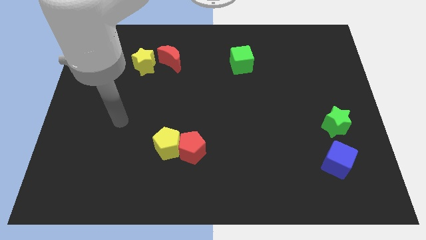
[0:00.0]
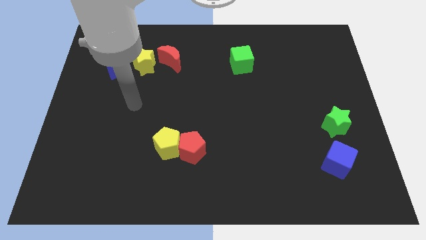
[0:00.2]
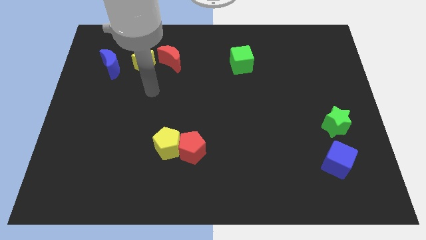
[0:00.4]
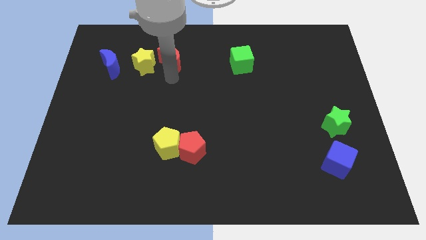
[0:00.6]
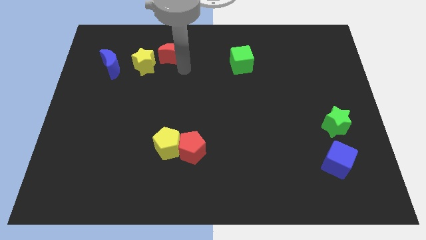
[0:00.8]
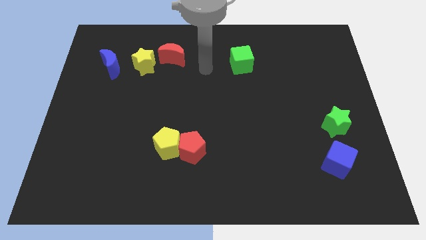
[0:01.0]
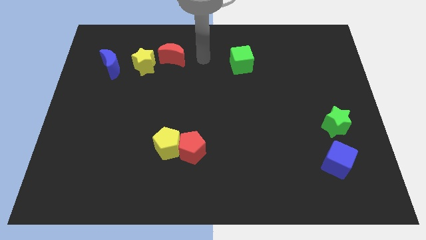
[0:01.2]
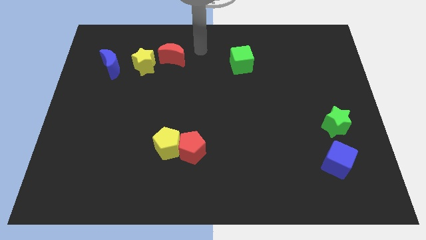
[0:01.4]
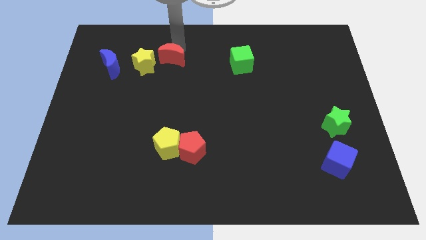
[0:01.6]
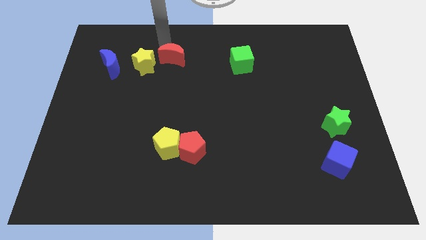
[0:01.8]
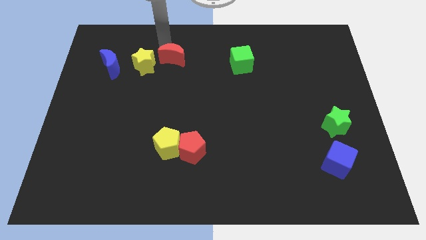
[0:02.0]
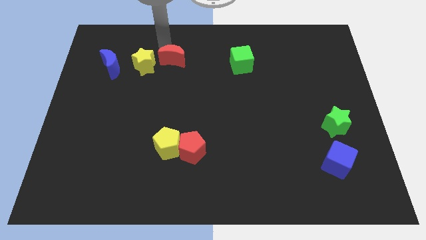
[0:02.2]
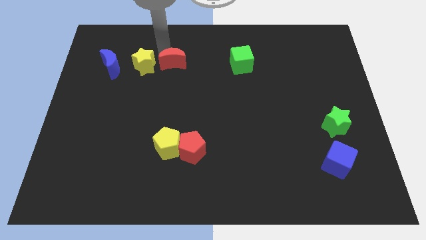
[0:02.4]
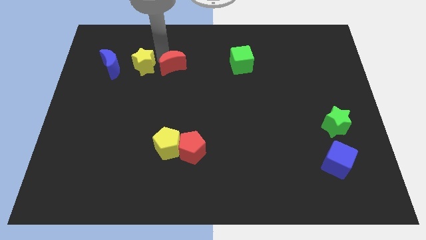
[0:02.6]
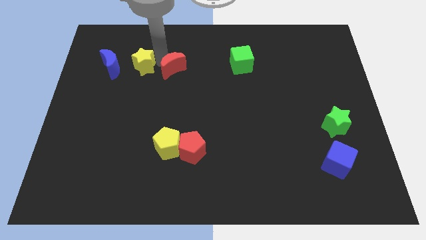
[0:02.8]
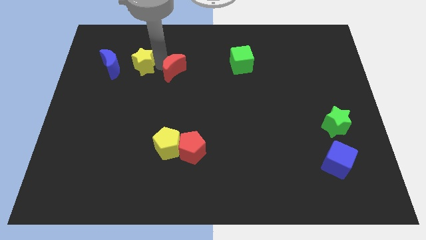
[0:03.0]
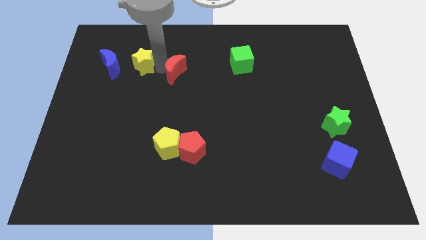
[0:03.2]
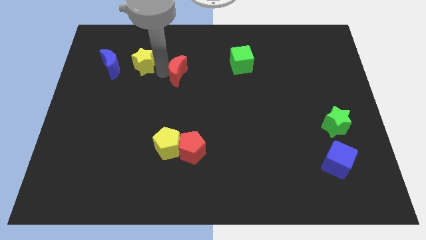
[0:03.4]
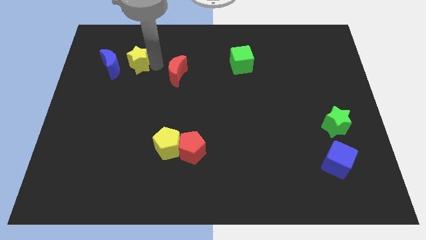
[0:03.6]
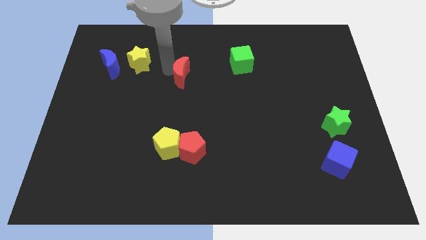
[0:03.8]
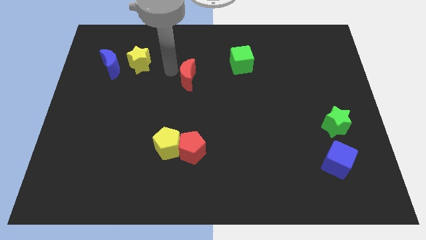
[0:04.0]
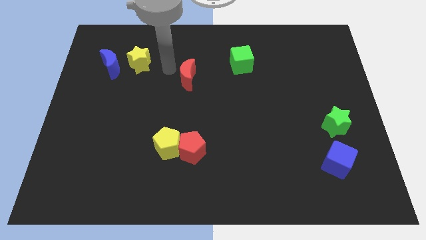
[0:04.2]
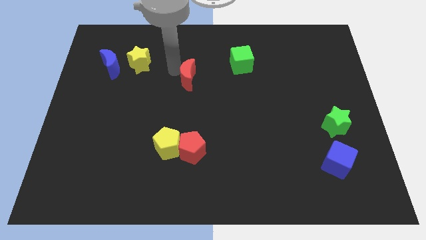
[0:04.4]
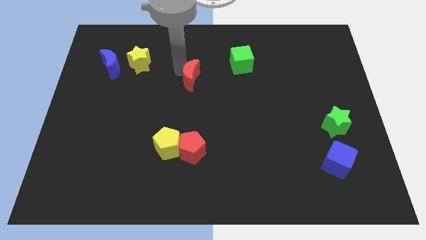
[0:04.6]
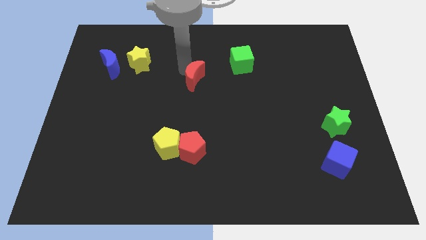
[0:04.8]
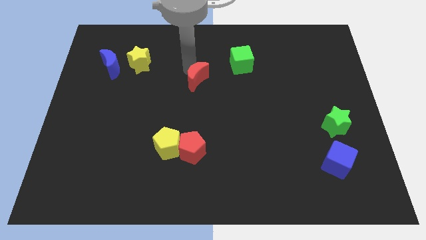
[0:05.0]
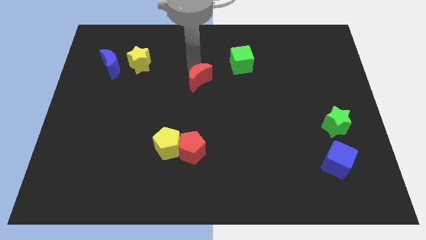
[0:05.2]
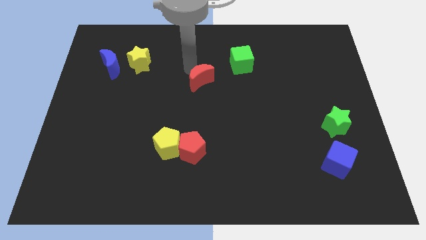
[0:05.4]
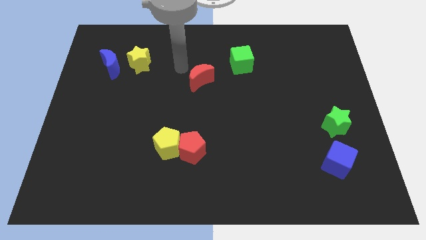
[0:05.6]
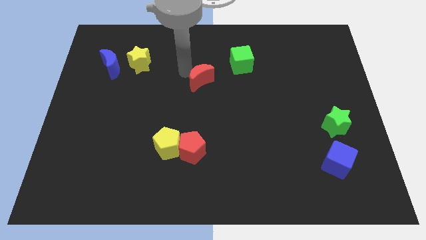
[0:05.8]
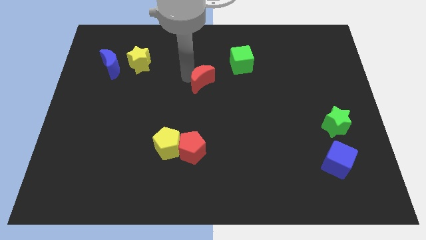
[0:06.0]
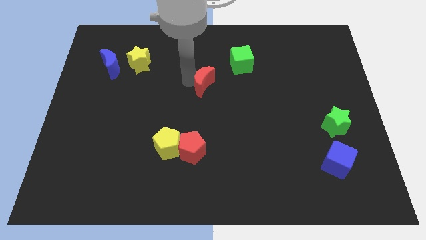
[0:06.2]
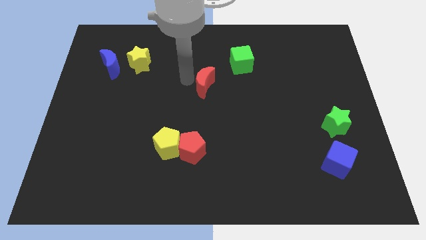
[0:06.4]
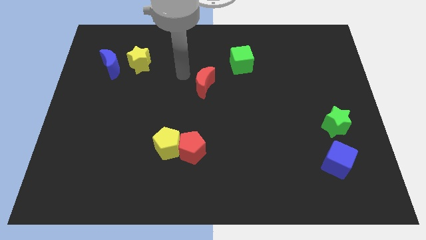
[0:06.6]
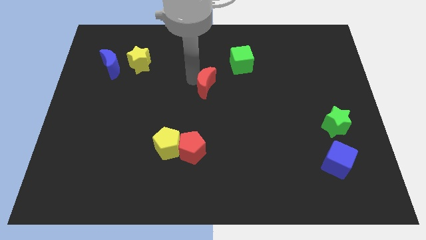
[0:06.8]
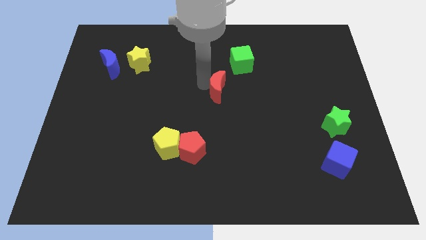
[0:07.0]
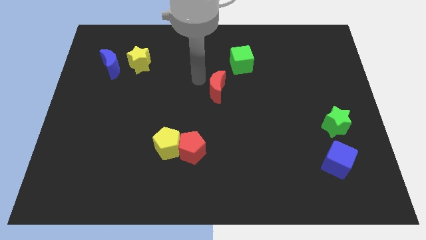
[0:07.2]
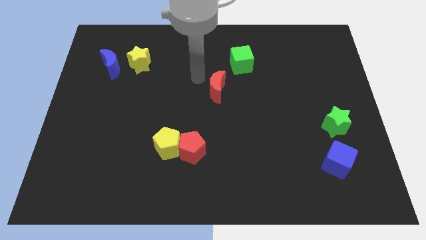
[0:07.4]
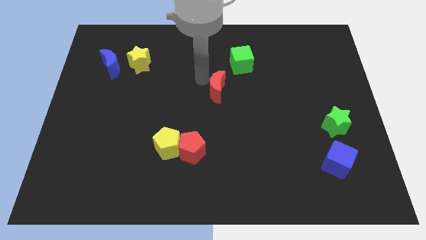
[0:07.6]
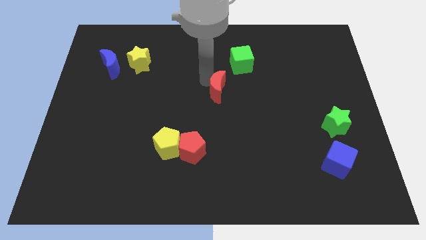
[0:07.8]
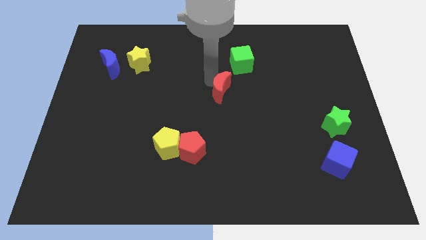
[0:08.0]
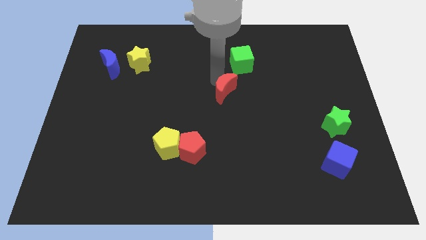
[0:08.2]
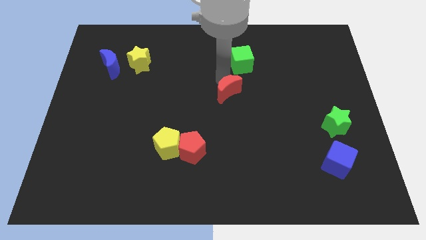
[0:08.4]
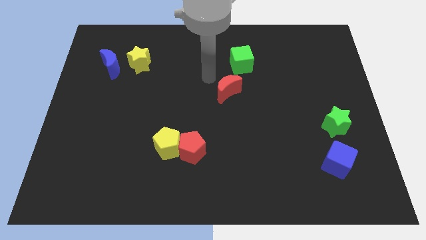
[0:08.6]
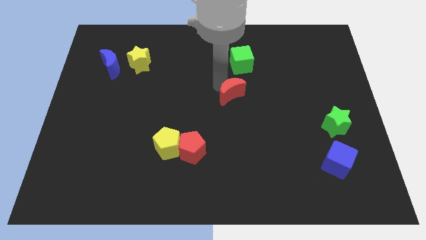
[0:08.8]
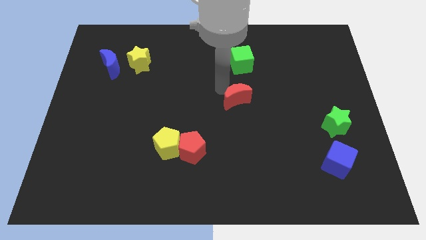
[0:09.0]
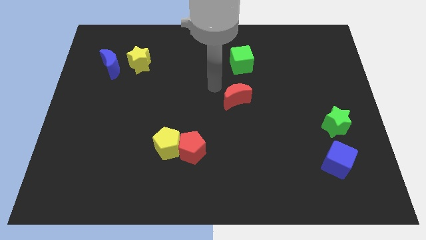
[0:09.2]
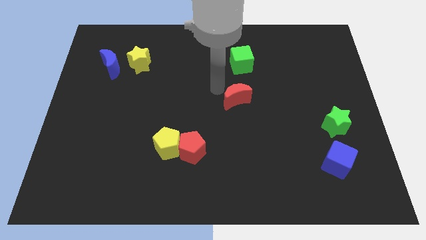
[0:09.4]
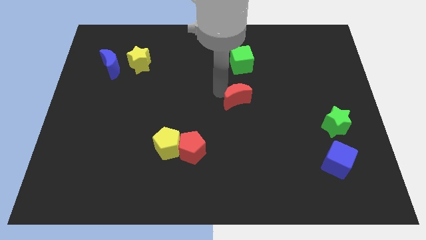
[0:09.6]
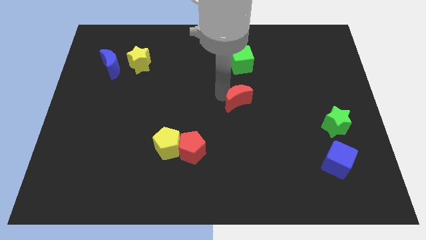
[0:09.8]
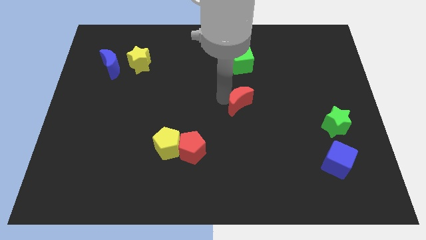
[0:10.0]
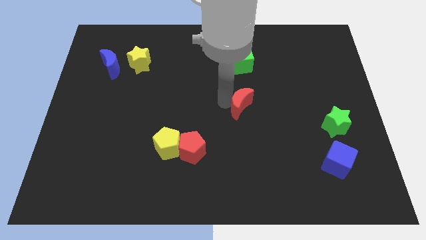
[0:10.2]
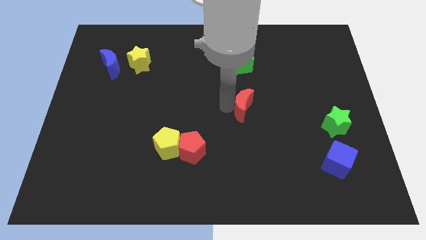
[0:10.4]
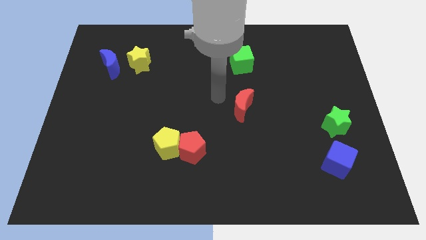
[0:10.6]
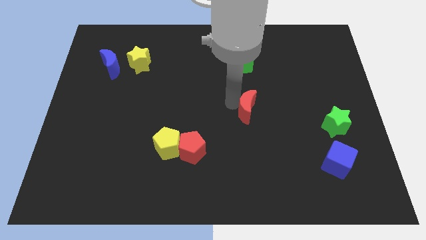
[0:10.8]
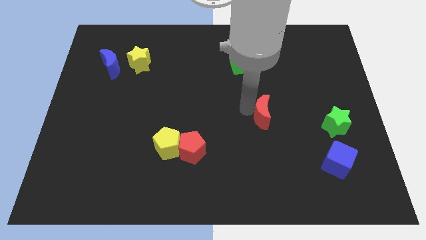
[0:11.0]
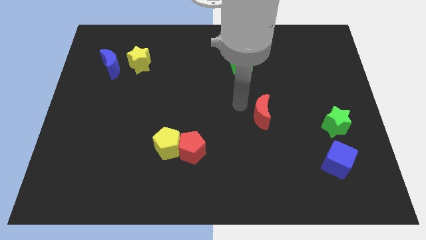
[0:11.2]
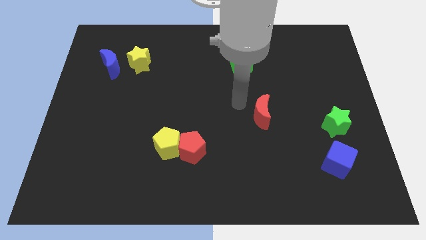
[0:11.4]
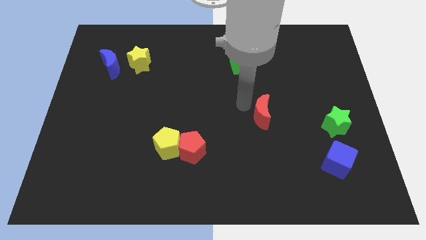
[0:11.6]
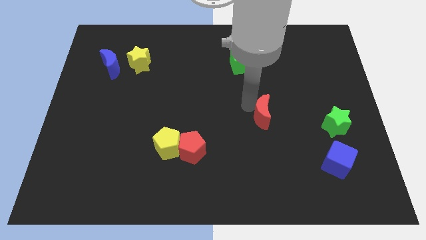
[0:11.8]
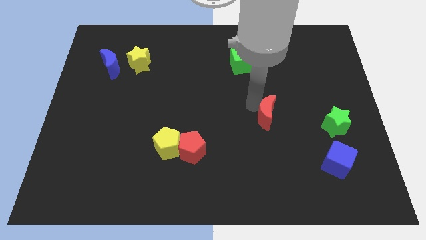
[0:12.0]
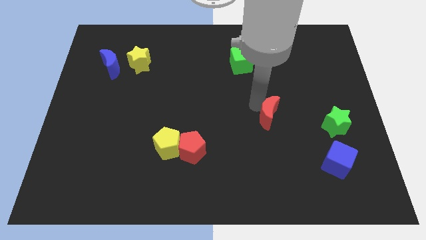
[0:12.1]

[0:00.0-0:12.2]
move the red moon to the left of the green star
